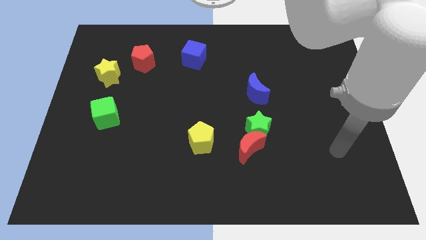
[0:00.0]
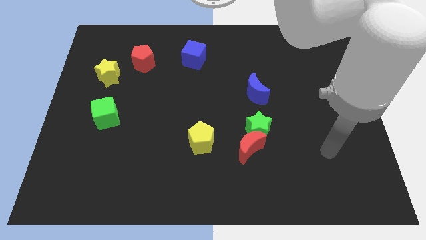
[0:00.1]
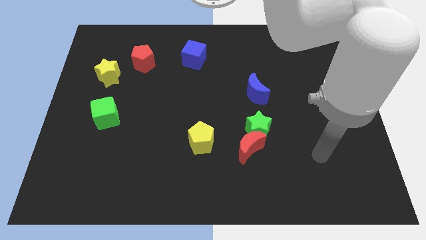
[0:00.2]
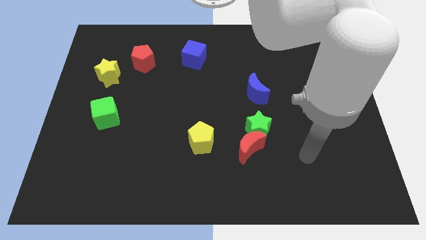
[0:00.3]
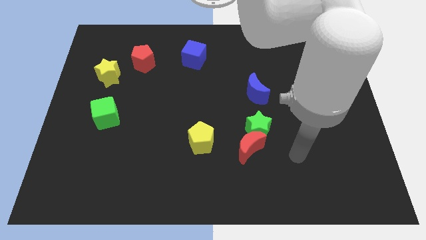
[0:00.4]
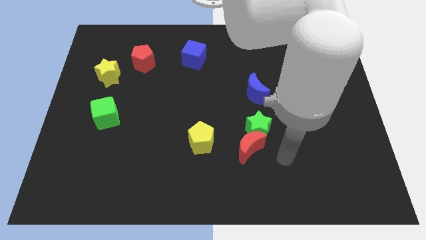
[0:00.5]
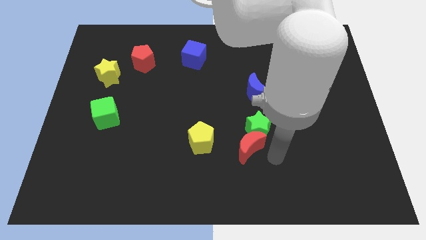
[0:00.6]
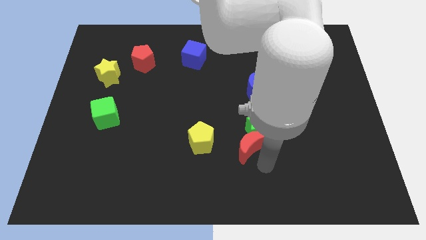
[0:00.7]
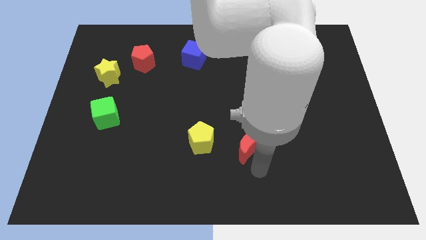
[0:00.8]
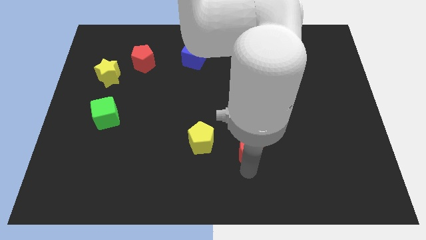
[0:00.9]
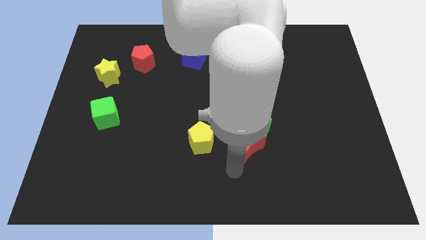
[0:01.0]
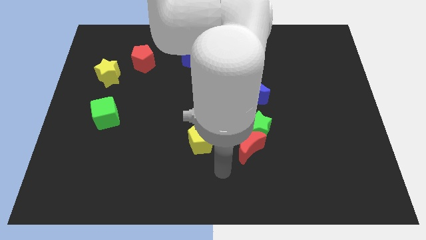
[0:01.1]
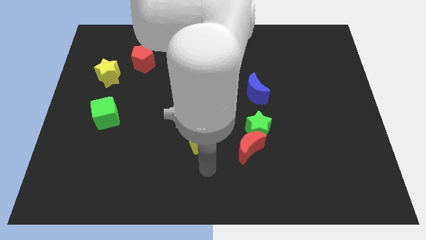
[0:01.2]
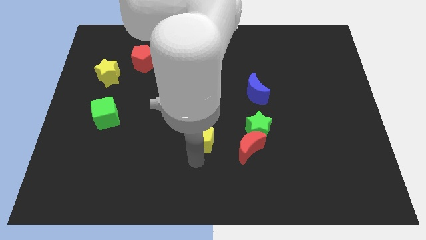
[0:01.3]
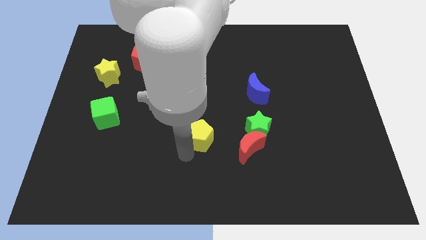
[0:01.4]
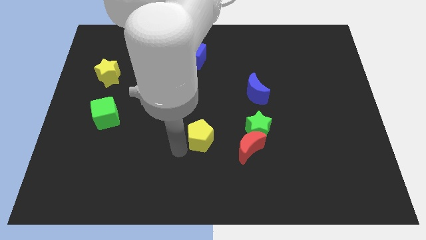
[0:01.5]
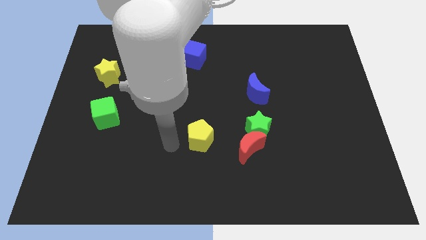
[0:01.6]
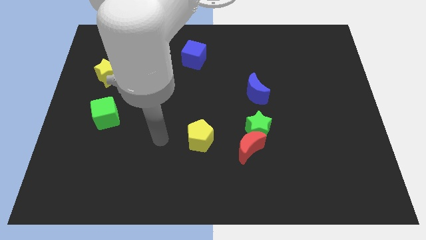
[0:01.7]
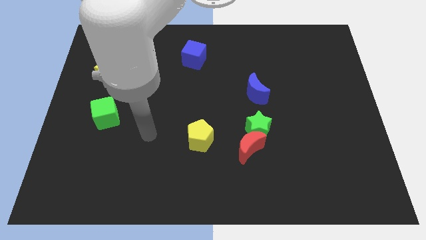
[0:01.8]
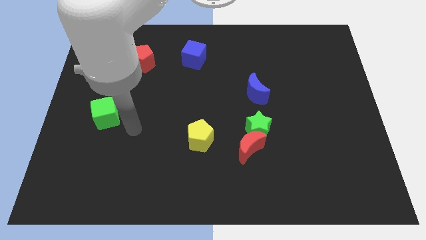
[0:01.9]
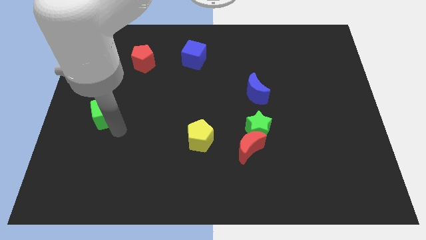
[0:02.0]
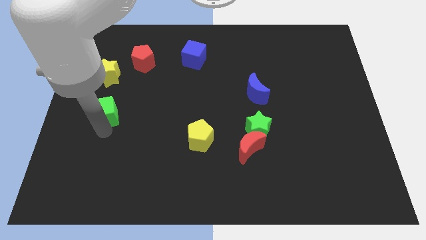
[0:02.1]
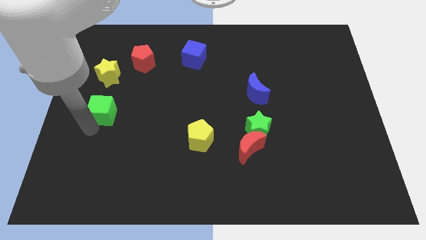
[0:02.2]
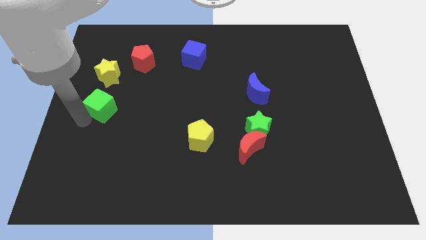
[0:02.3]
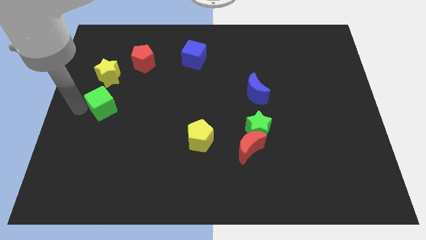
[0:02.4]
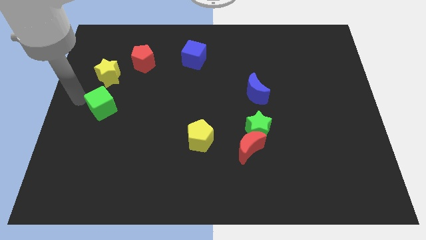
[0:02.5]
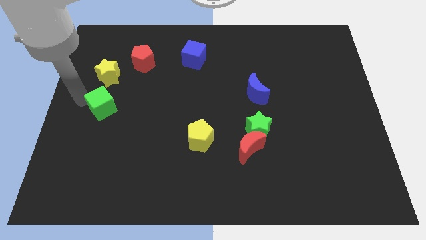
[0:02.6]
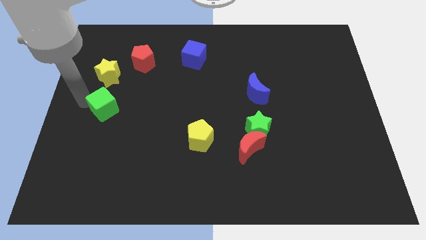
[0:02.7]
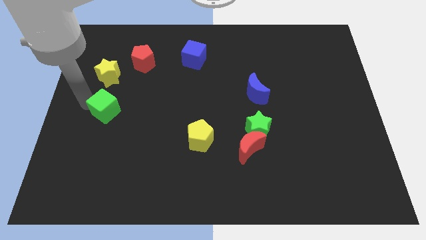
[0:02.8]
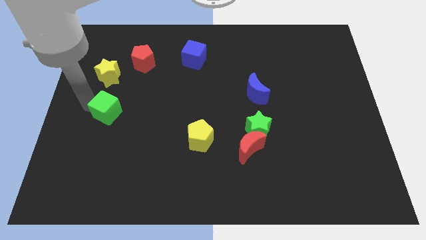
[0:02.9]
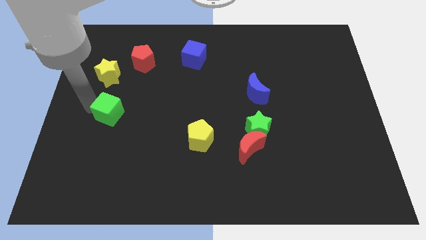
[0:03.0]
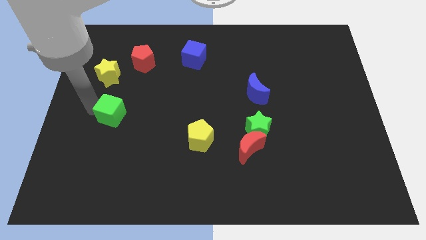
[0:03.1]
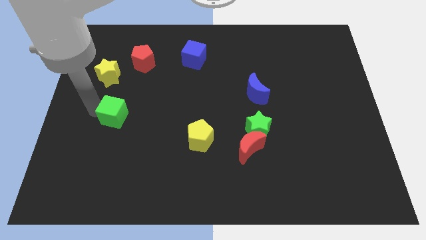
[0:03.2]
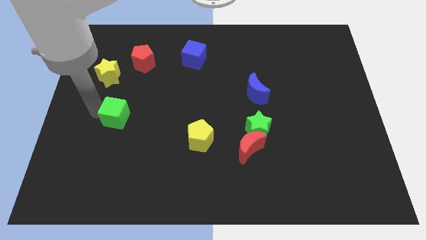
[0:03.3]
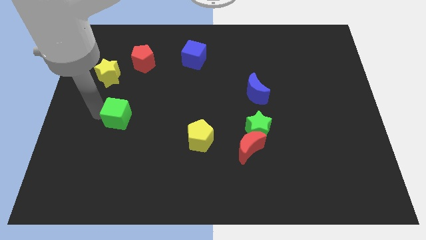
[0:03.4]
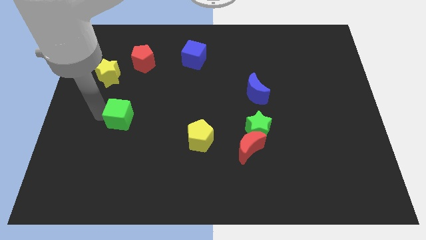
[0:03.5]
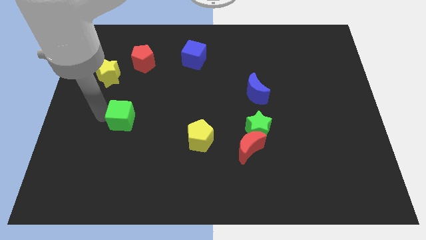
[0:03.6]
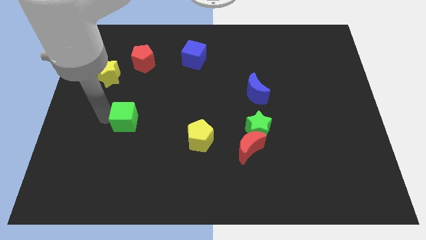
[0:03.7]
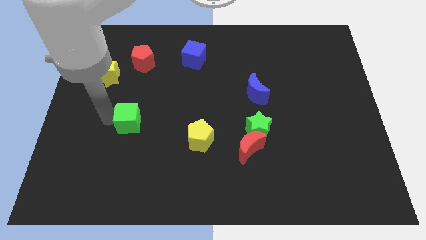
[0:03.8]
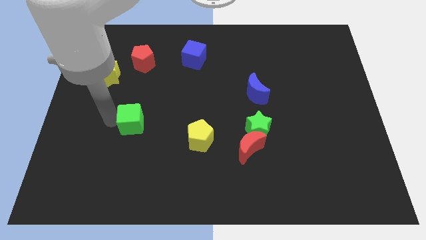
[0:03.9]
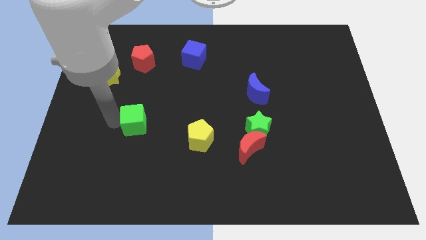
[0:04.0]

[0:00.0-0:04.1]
slightly push the green cube to the right

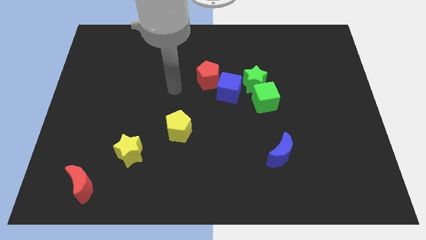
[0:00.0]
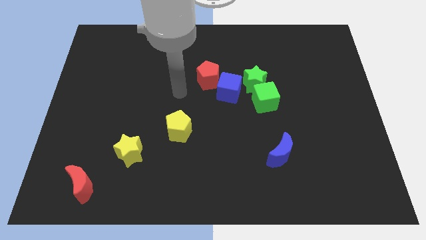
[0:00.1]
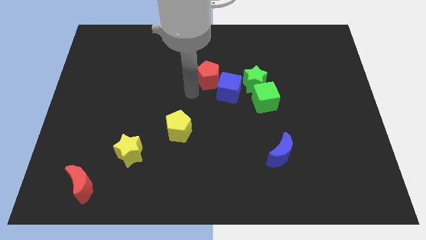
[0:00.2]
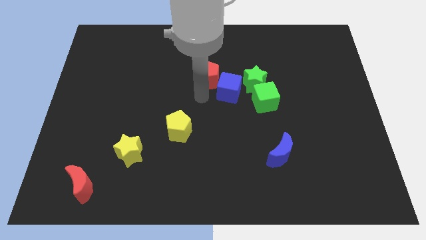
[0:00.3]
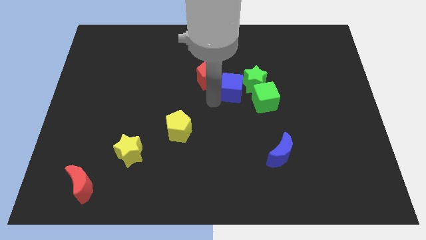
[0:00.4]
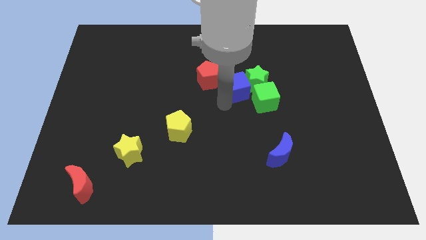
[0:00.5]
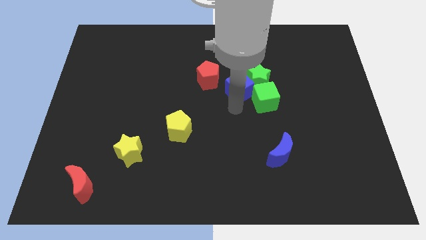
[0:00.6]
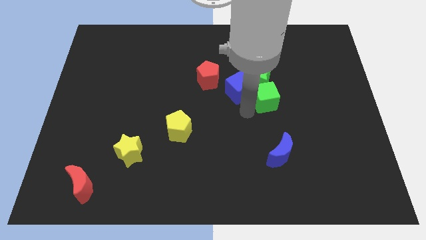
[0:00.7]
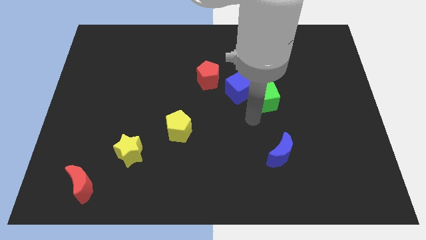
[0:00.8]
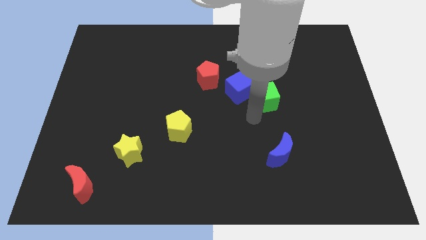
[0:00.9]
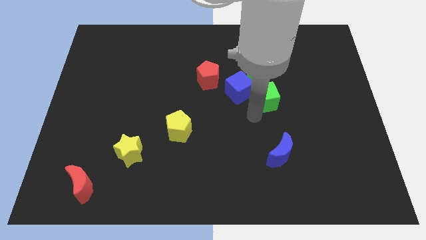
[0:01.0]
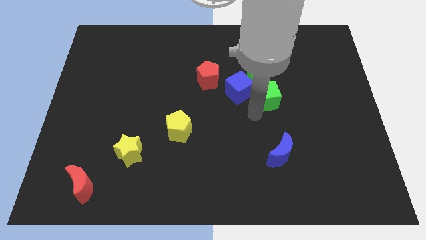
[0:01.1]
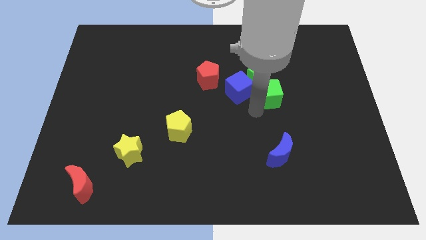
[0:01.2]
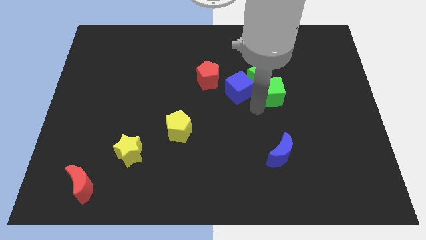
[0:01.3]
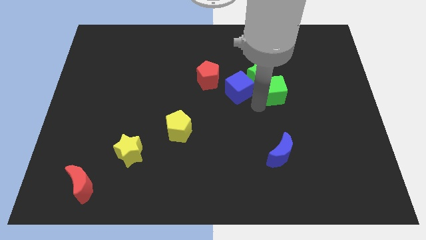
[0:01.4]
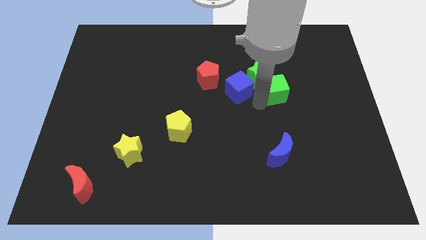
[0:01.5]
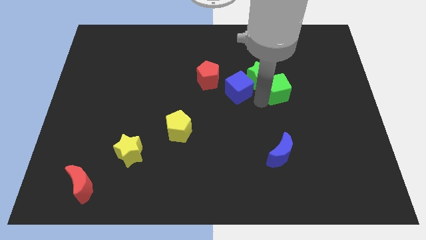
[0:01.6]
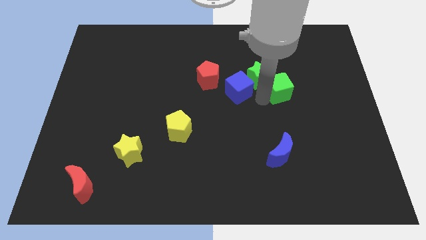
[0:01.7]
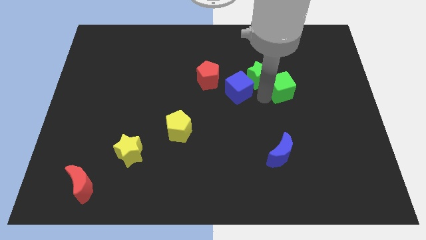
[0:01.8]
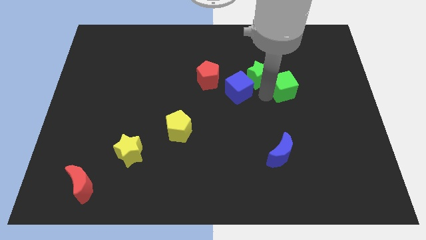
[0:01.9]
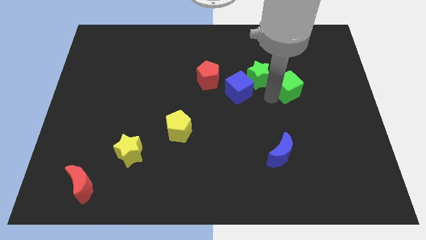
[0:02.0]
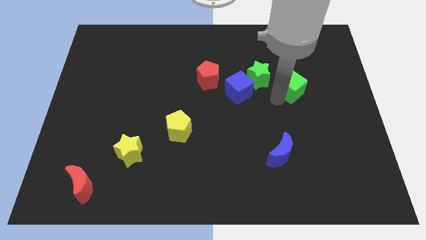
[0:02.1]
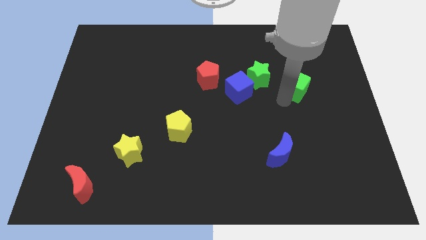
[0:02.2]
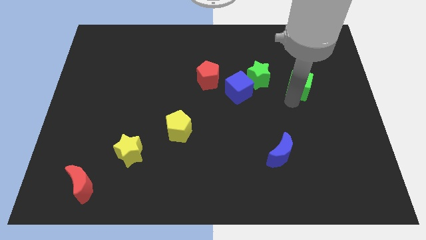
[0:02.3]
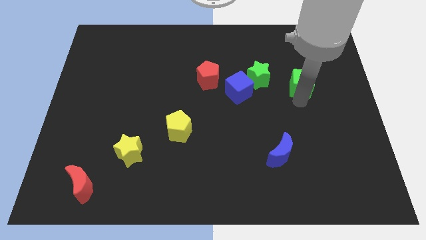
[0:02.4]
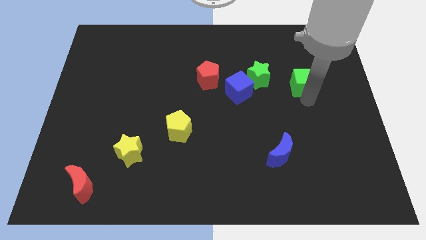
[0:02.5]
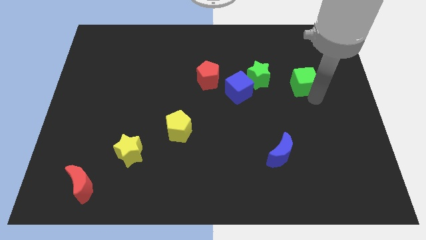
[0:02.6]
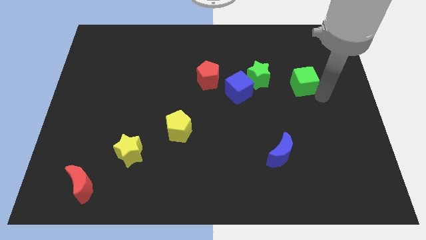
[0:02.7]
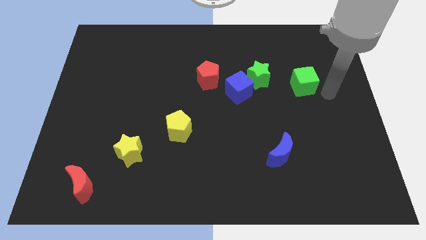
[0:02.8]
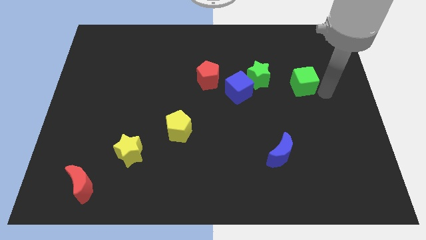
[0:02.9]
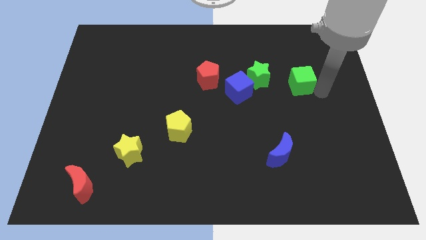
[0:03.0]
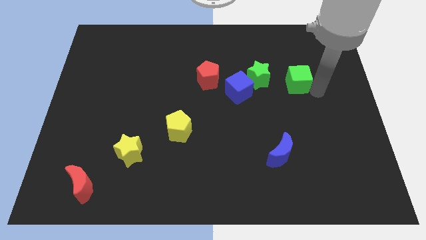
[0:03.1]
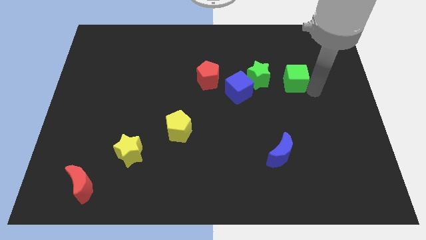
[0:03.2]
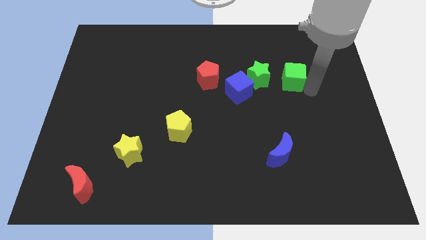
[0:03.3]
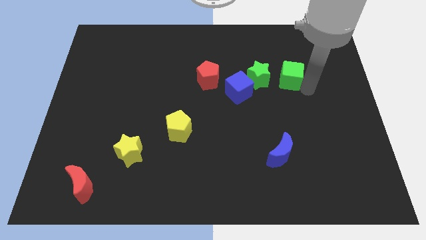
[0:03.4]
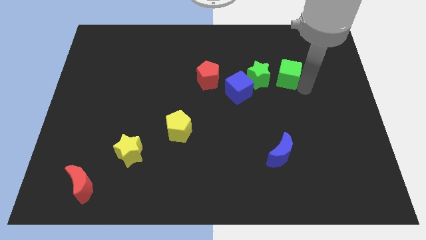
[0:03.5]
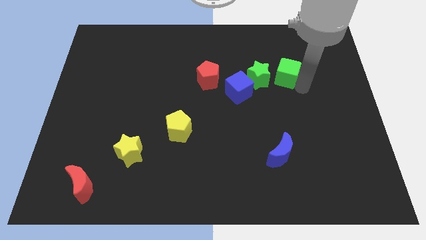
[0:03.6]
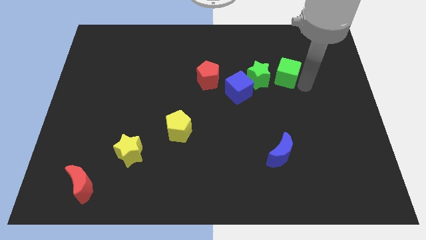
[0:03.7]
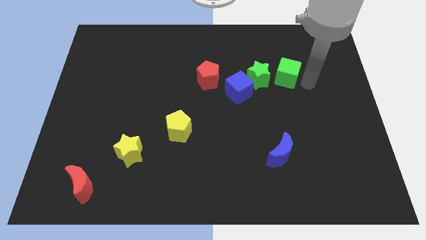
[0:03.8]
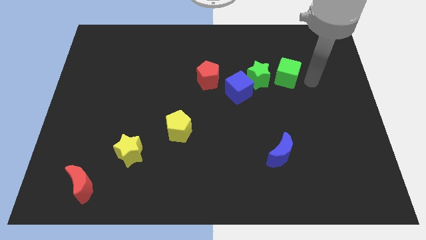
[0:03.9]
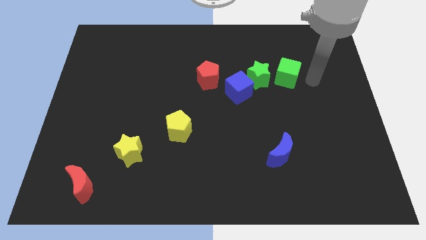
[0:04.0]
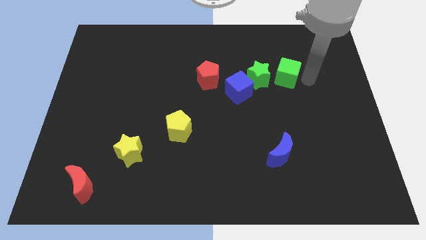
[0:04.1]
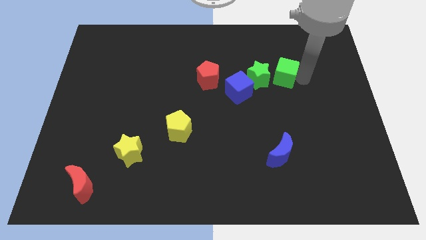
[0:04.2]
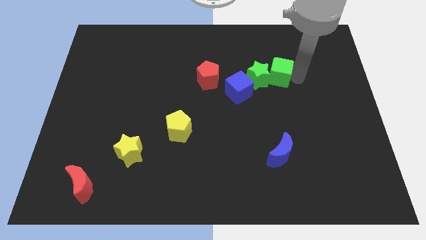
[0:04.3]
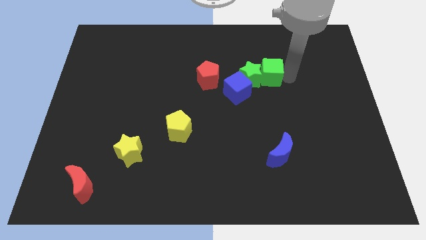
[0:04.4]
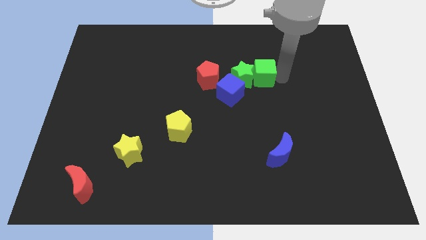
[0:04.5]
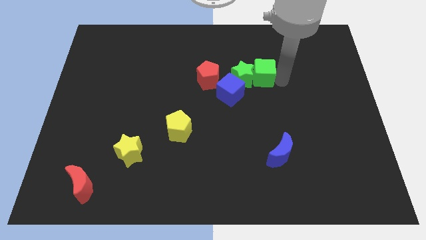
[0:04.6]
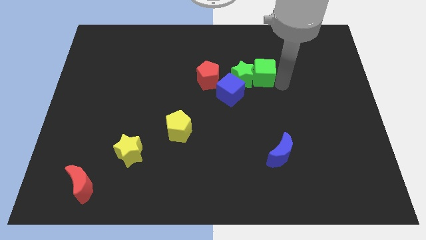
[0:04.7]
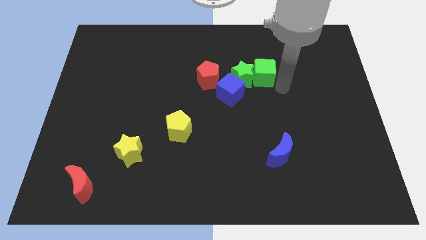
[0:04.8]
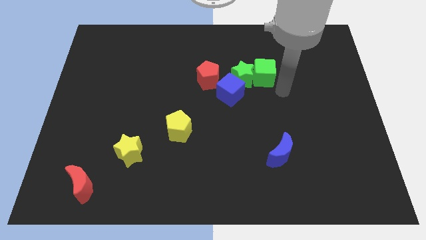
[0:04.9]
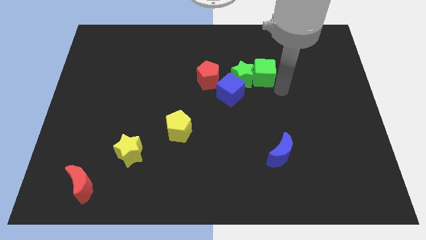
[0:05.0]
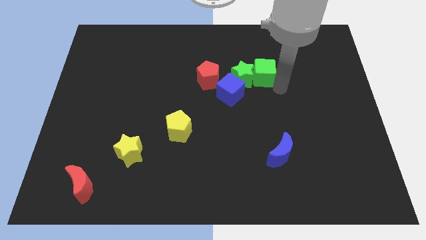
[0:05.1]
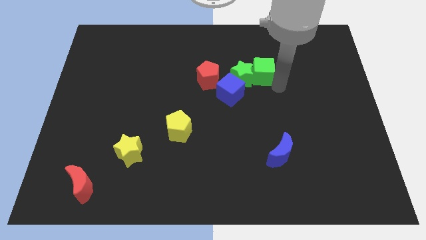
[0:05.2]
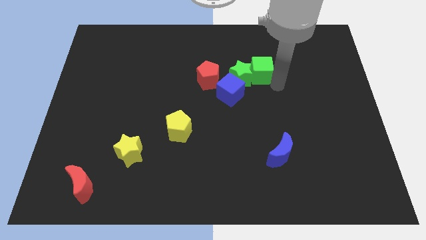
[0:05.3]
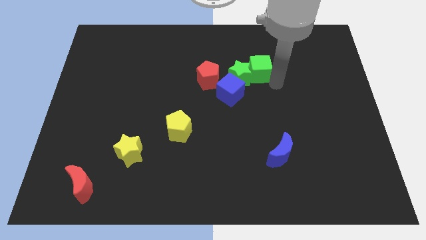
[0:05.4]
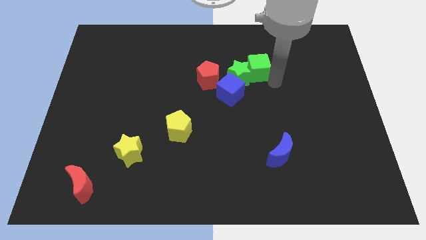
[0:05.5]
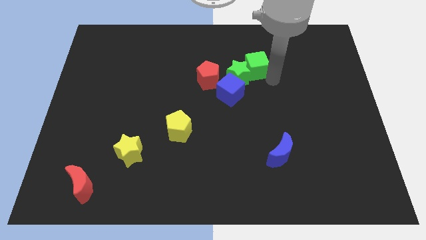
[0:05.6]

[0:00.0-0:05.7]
slightly move the green cube diagonally up and to the left
